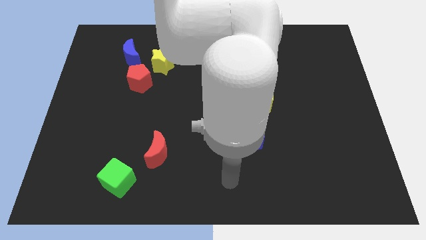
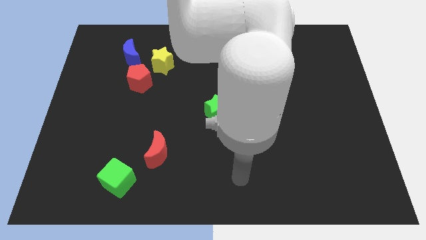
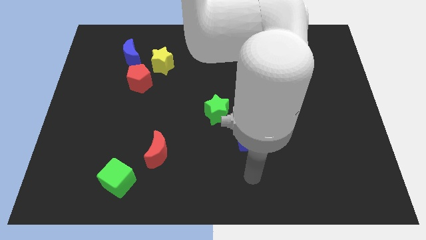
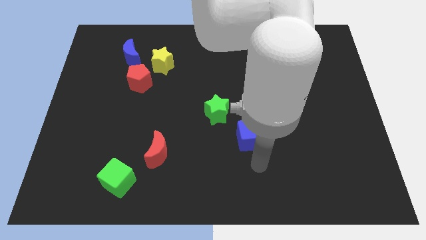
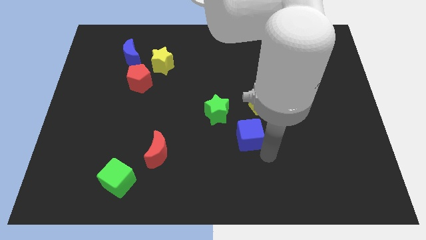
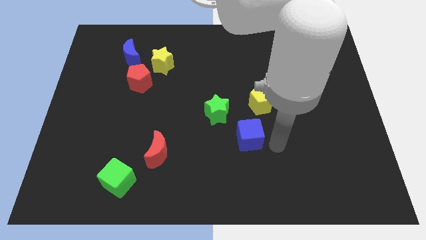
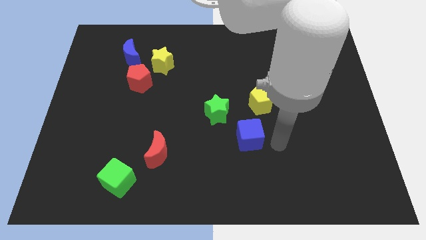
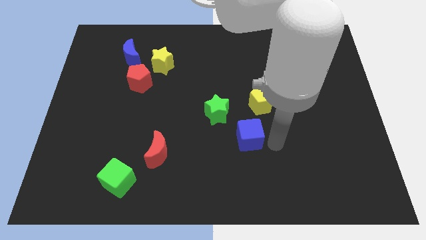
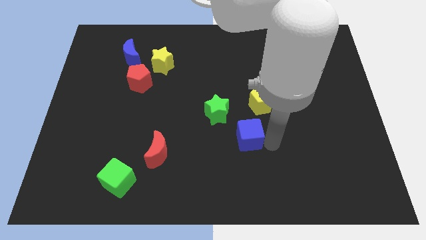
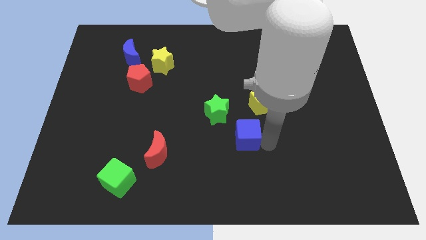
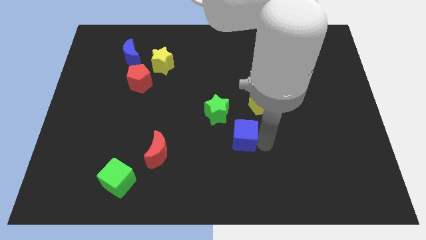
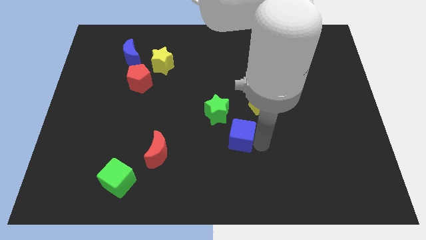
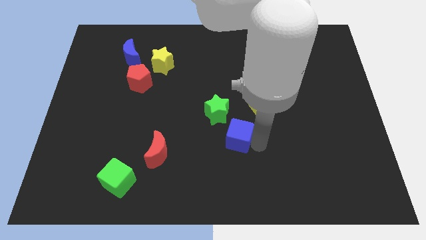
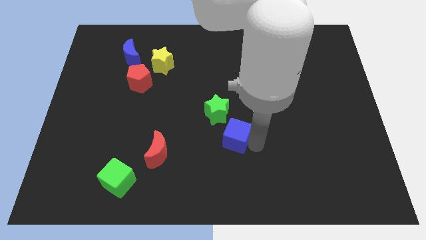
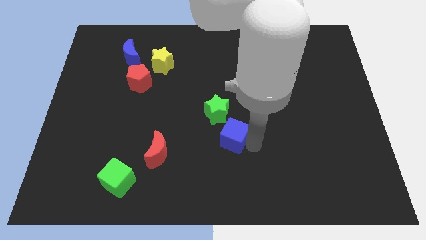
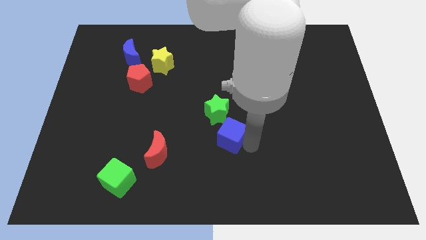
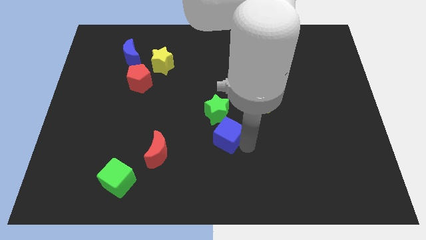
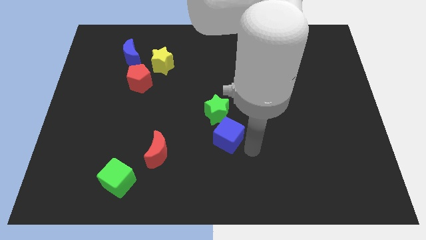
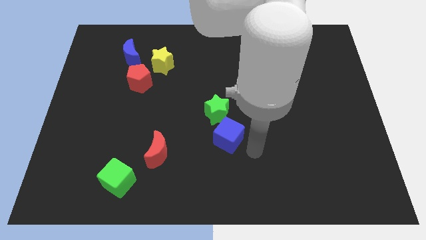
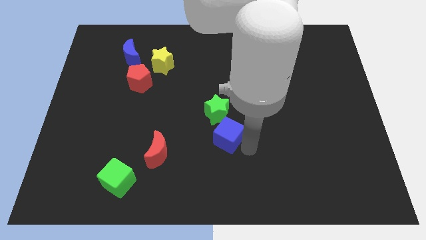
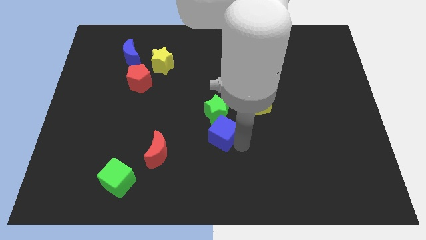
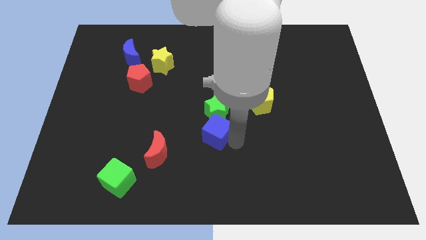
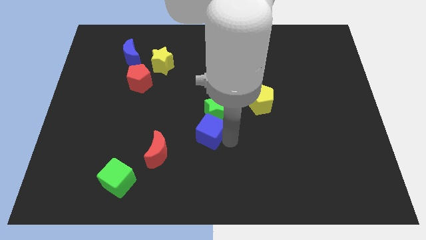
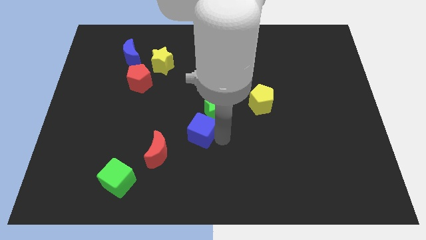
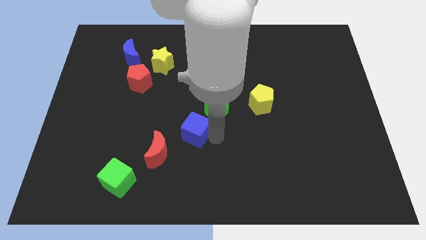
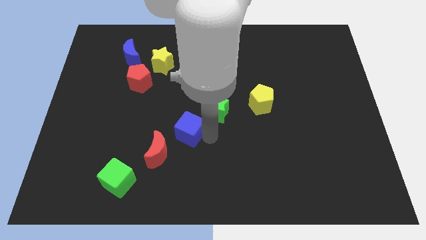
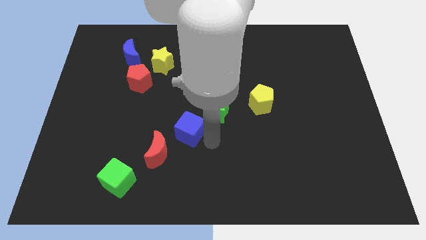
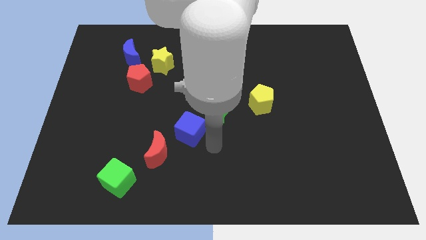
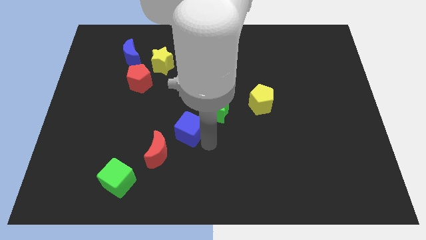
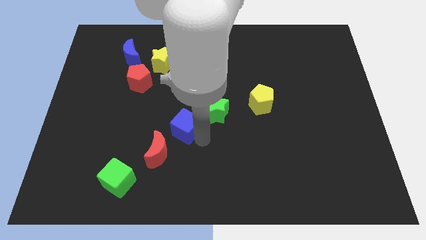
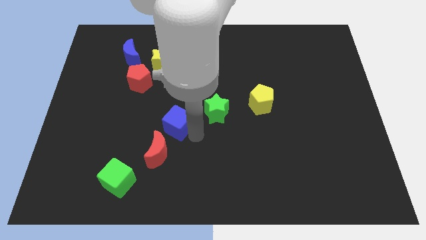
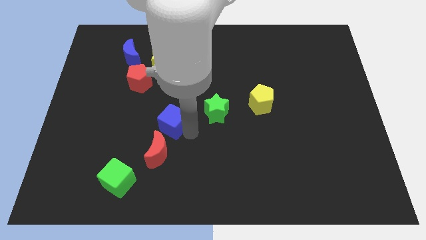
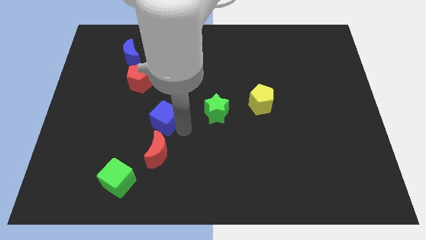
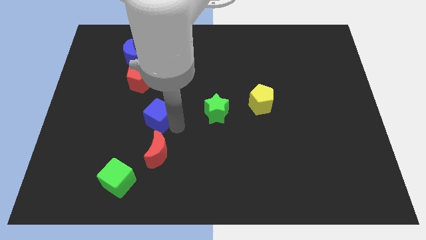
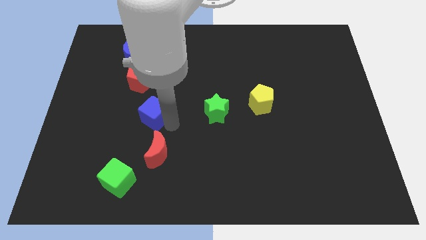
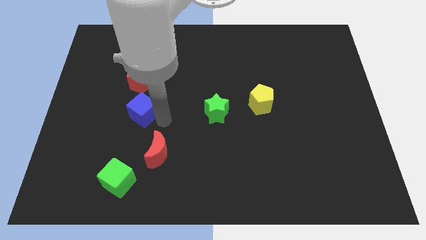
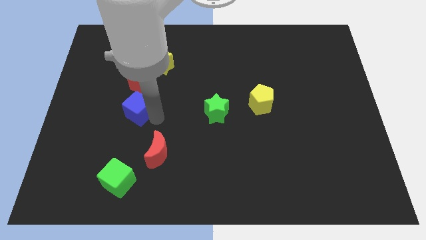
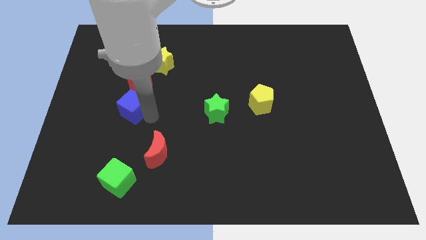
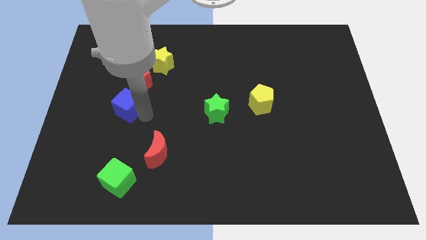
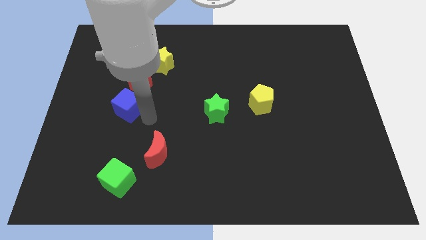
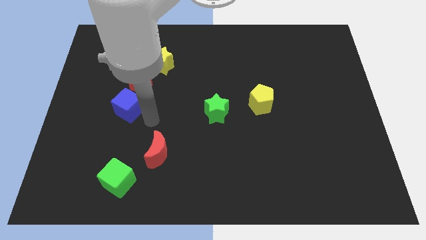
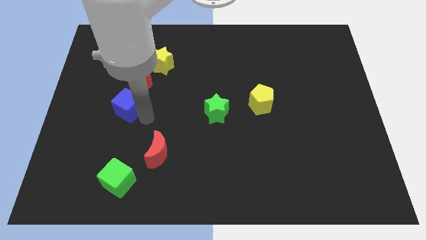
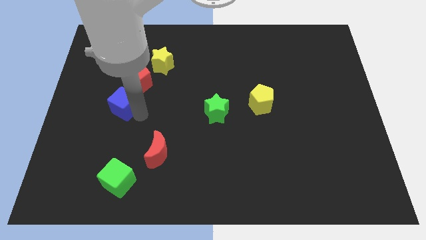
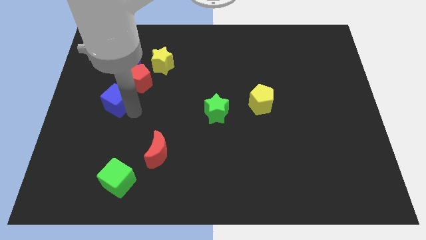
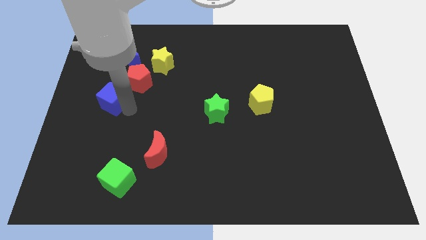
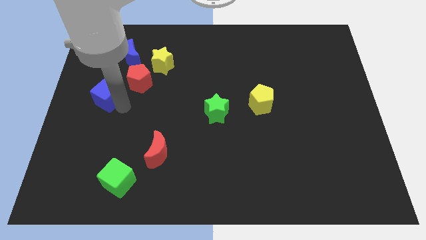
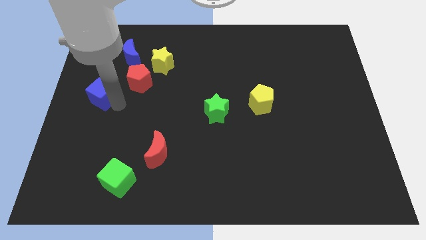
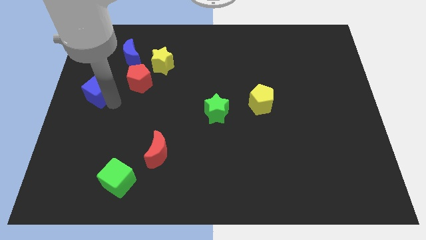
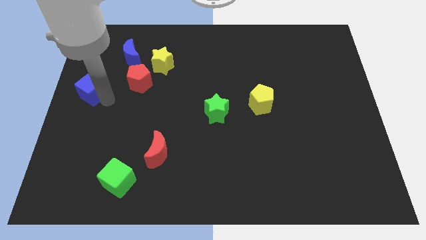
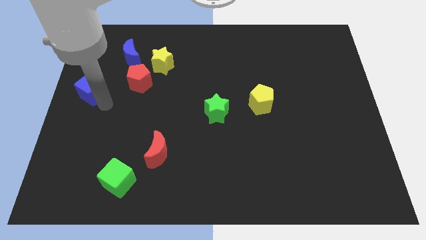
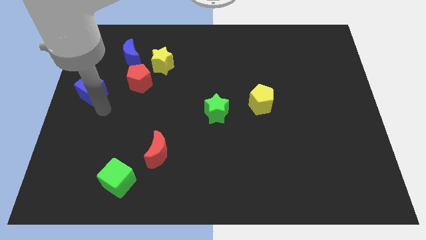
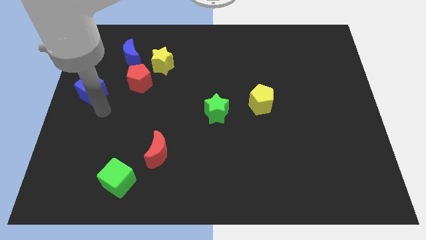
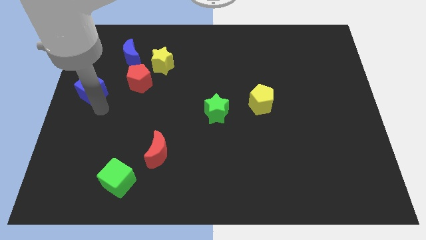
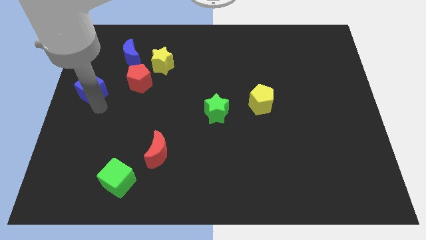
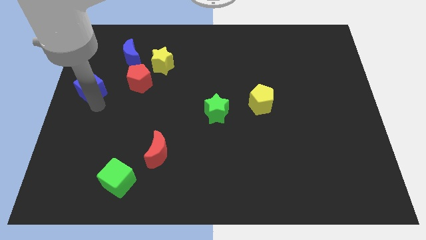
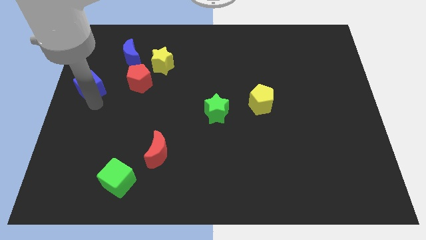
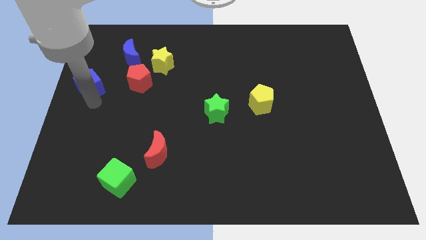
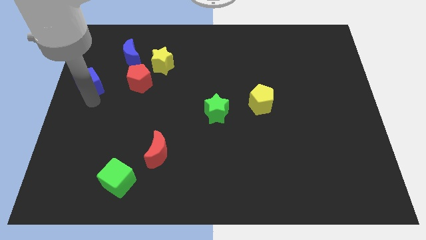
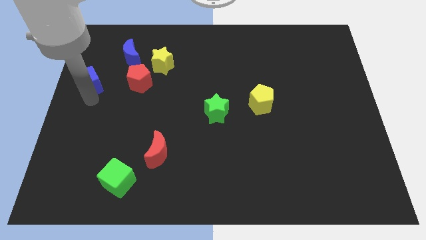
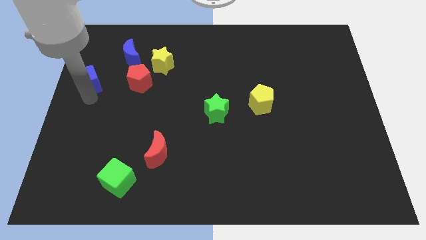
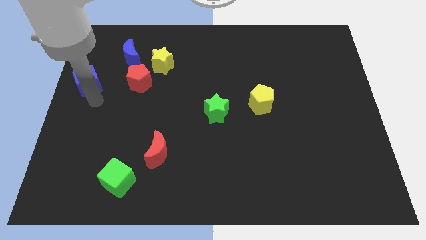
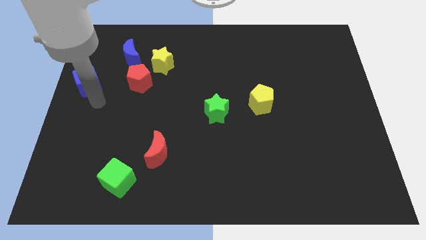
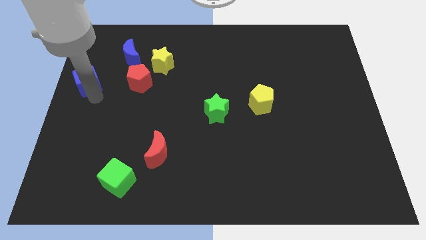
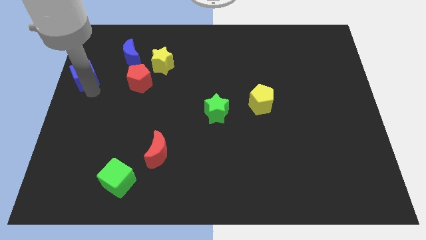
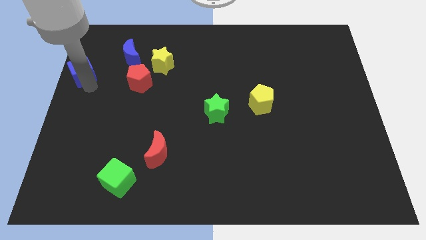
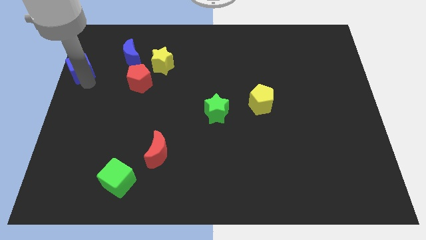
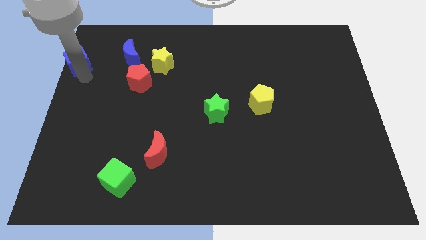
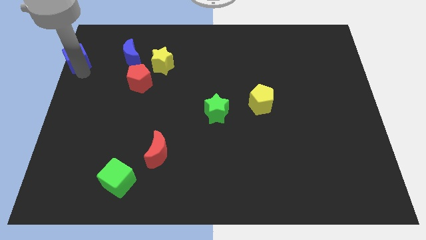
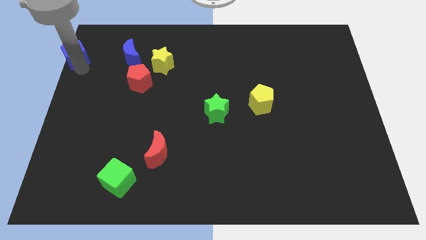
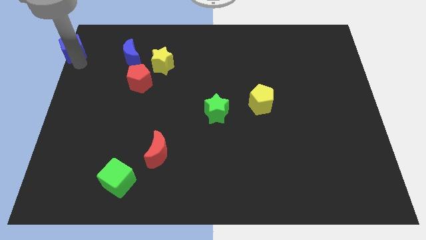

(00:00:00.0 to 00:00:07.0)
move the blue cube to the top left corner
